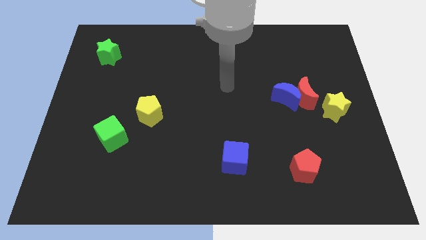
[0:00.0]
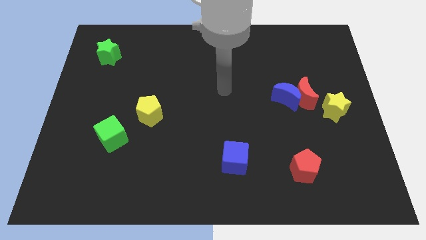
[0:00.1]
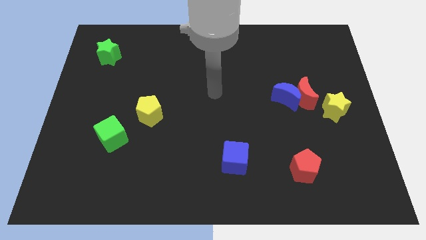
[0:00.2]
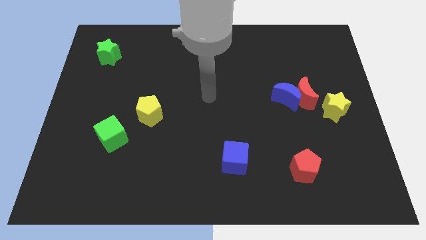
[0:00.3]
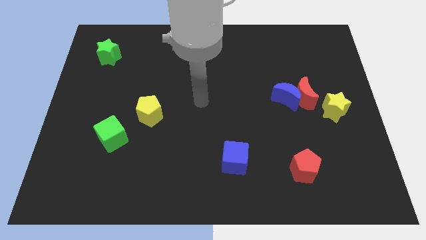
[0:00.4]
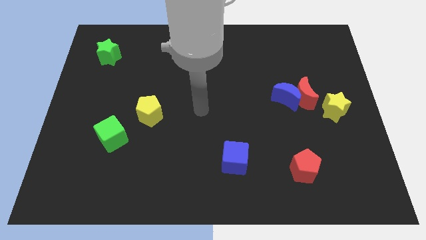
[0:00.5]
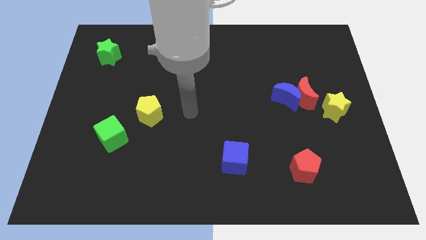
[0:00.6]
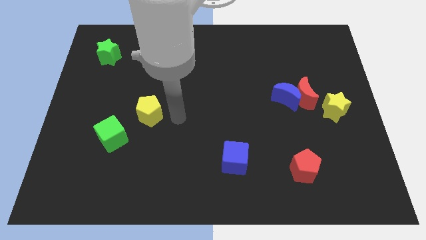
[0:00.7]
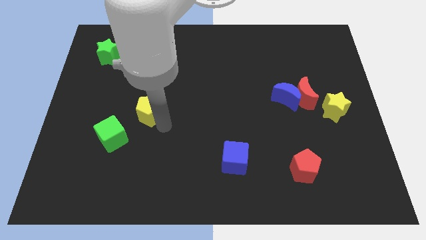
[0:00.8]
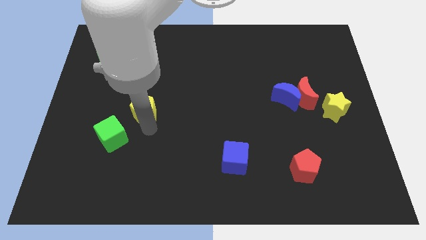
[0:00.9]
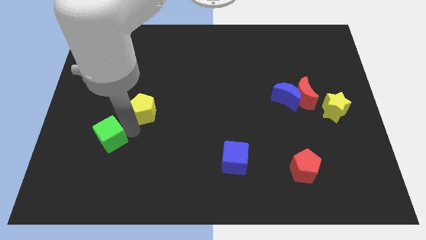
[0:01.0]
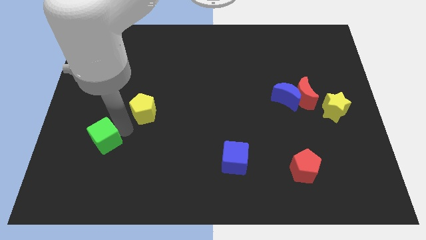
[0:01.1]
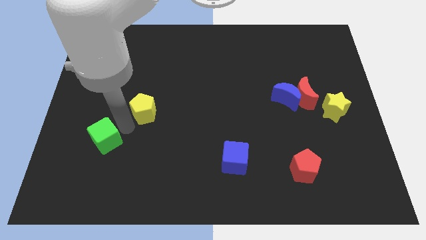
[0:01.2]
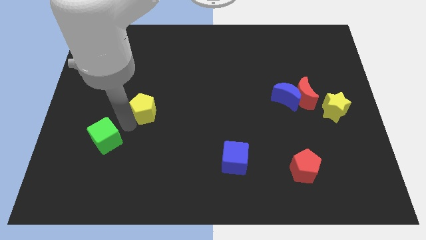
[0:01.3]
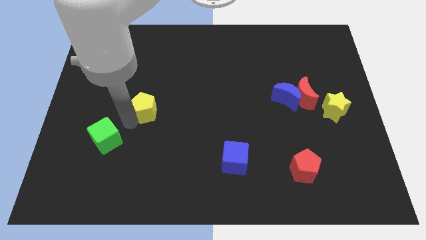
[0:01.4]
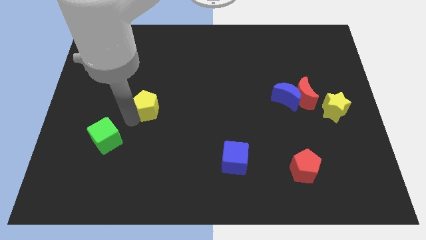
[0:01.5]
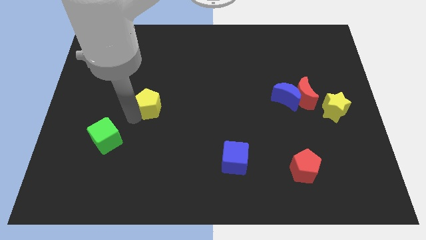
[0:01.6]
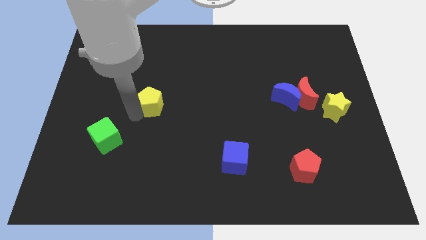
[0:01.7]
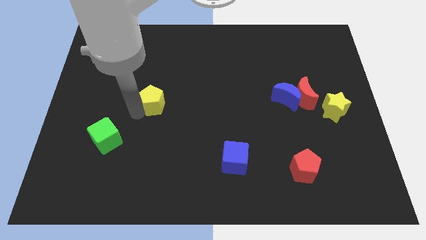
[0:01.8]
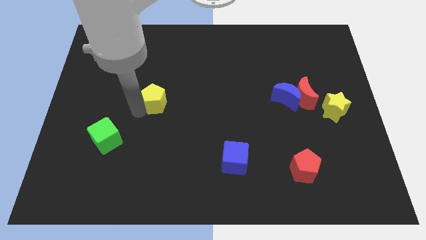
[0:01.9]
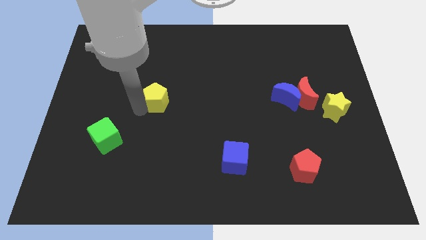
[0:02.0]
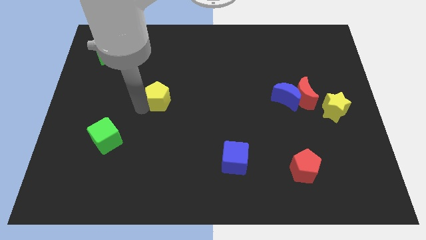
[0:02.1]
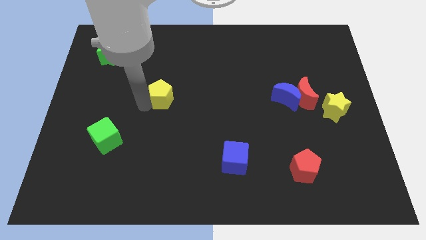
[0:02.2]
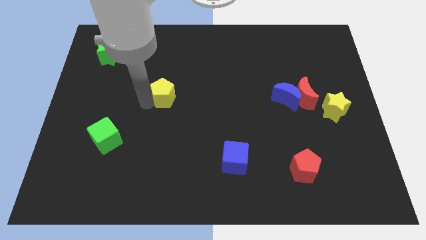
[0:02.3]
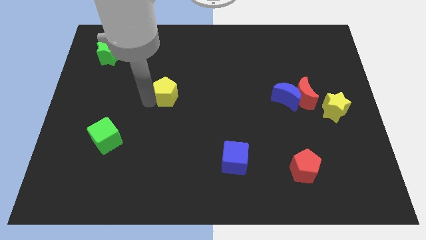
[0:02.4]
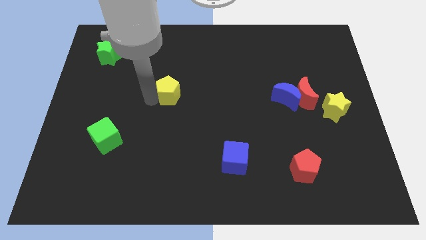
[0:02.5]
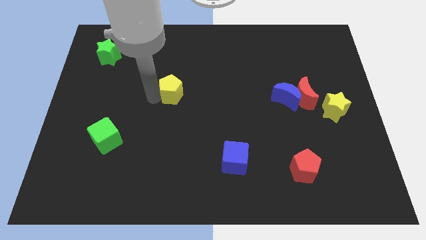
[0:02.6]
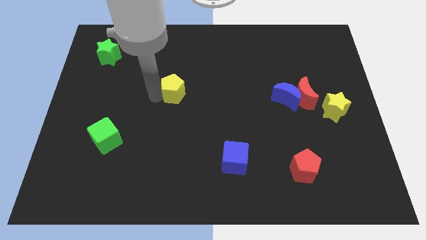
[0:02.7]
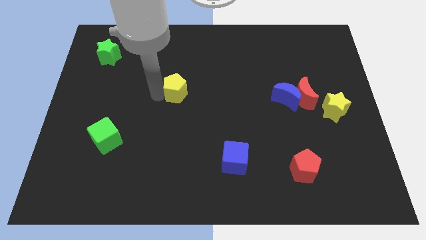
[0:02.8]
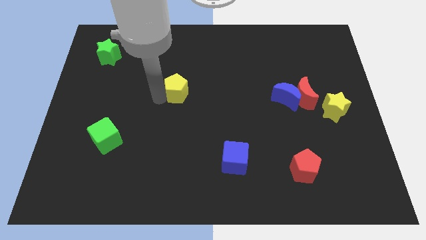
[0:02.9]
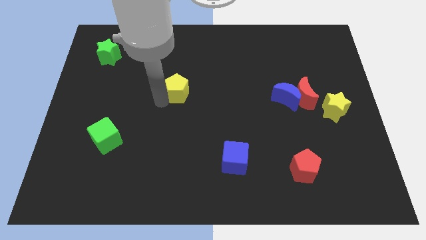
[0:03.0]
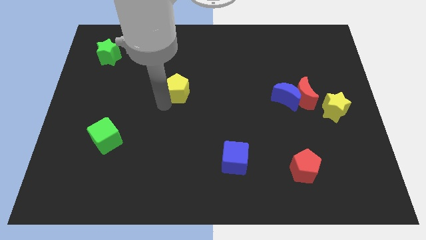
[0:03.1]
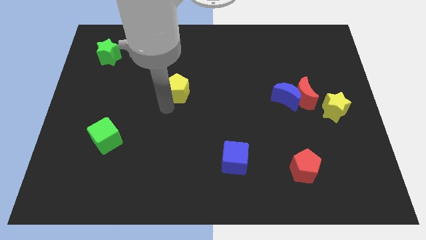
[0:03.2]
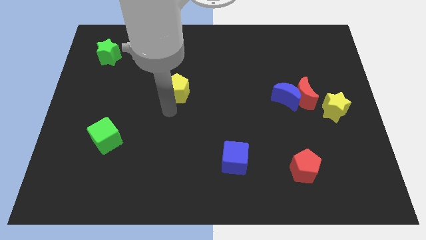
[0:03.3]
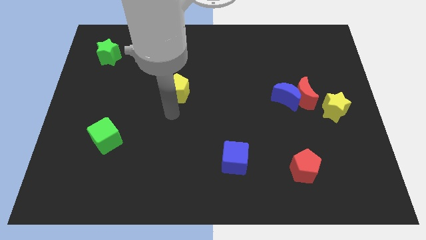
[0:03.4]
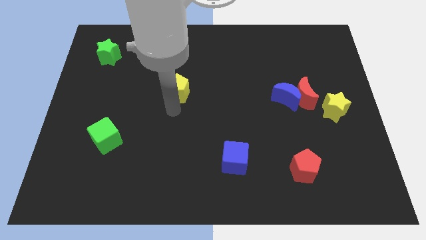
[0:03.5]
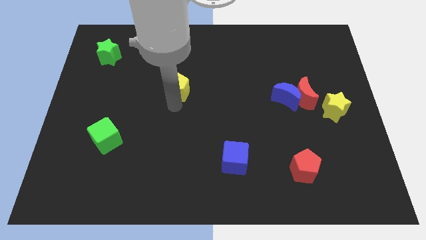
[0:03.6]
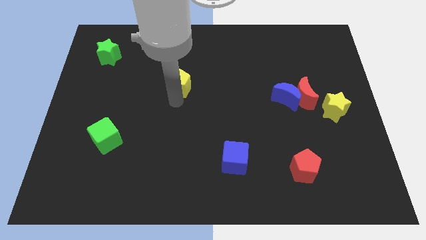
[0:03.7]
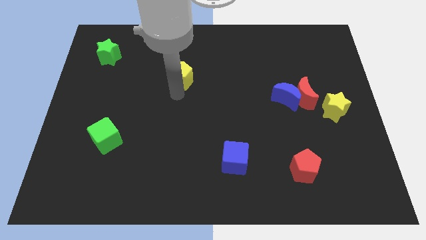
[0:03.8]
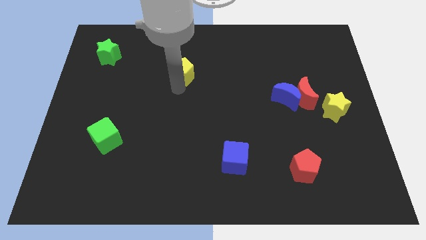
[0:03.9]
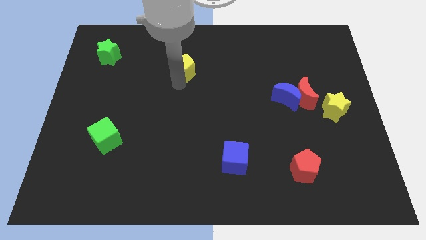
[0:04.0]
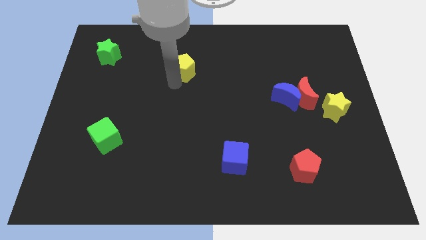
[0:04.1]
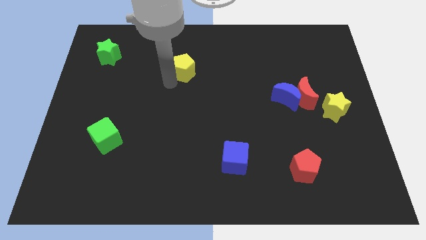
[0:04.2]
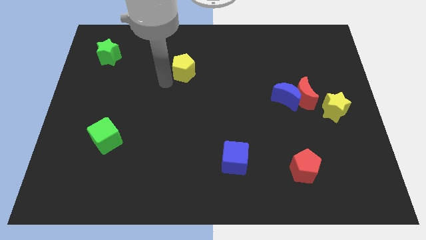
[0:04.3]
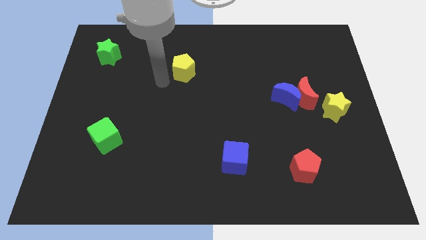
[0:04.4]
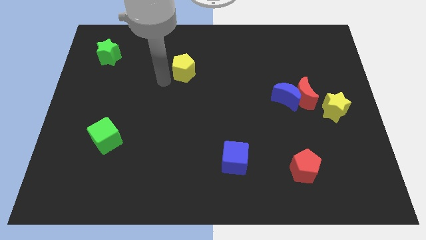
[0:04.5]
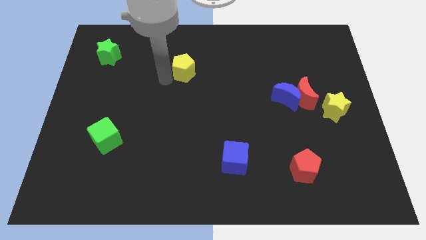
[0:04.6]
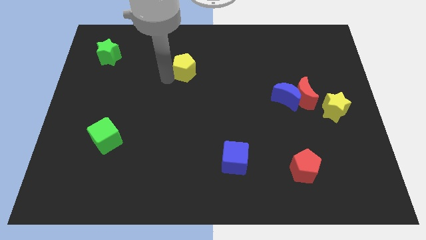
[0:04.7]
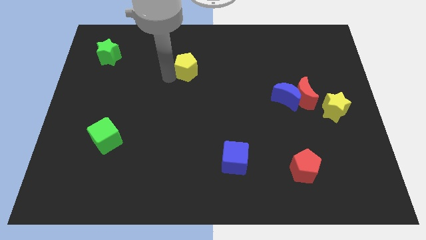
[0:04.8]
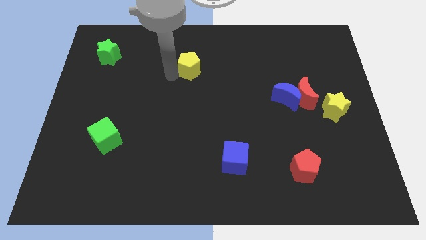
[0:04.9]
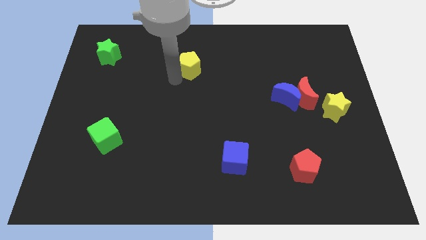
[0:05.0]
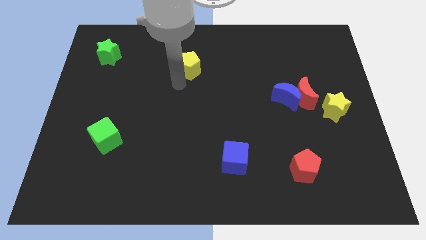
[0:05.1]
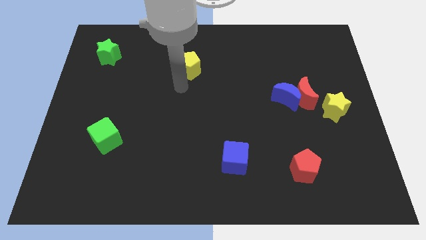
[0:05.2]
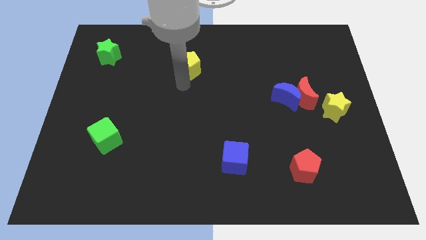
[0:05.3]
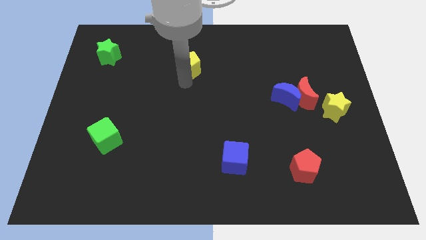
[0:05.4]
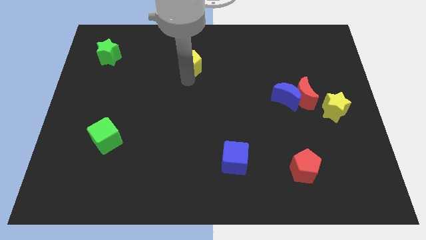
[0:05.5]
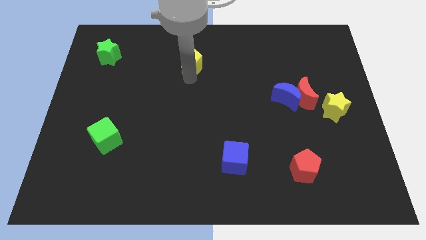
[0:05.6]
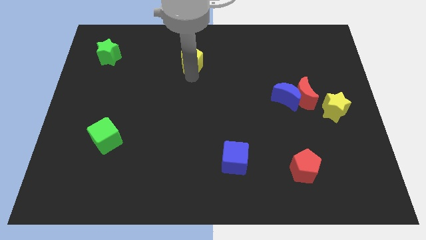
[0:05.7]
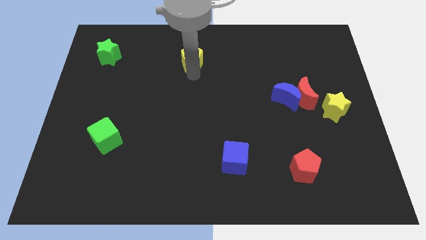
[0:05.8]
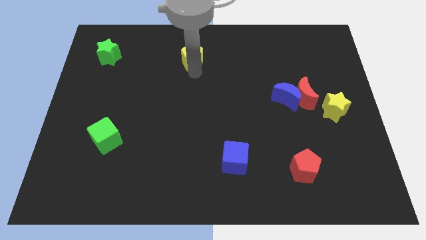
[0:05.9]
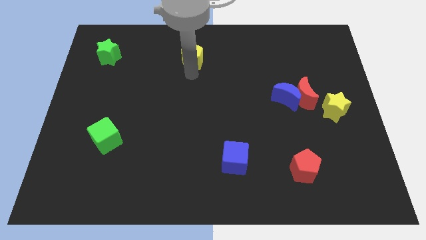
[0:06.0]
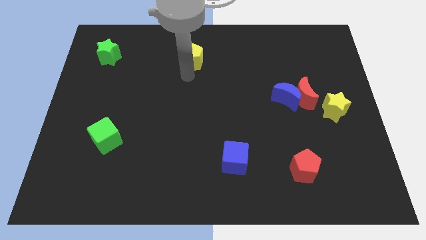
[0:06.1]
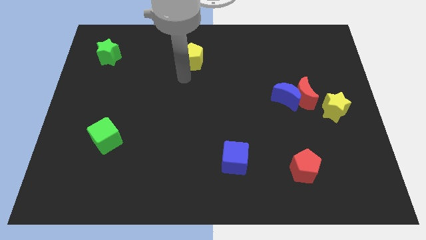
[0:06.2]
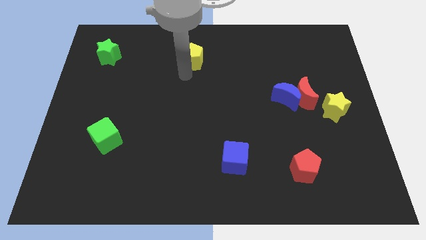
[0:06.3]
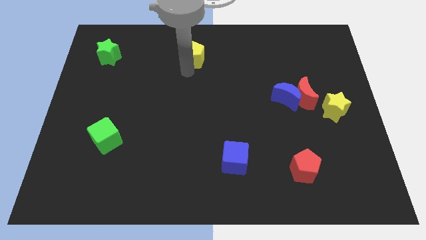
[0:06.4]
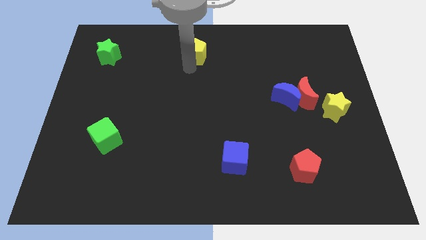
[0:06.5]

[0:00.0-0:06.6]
put the yellow pentagon to the towards your base
